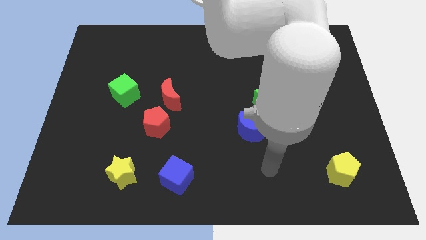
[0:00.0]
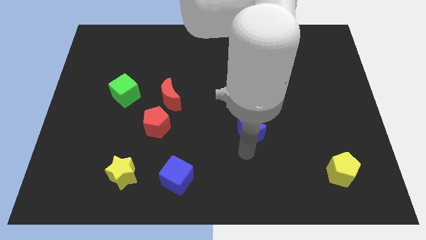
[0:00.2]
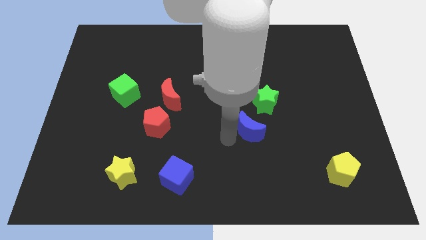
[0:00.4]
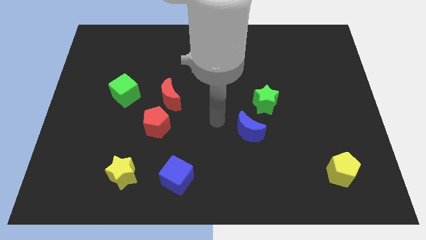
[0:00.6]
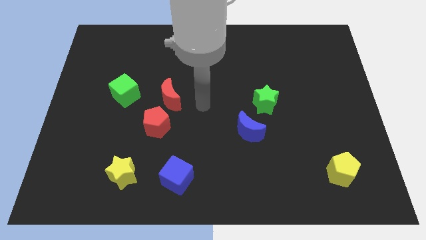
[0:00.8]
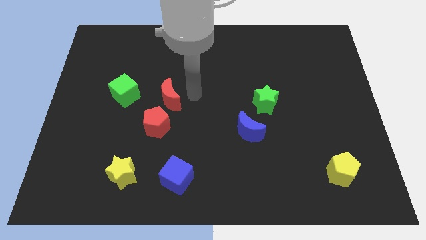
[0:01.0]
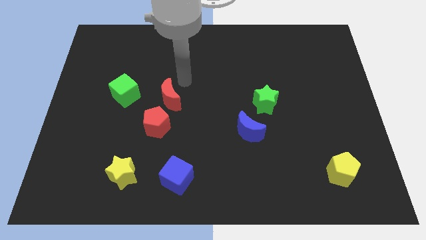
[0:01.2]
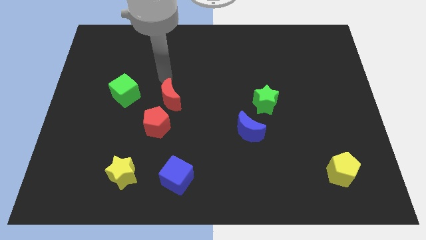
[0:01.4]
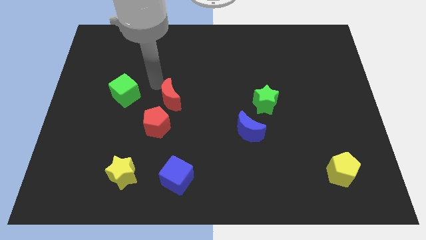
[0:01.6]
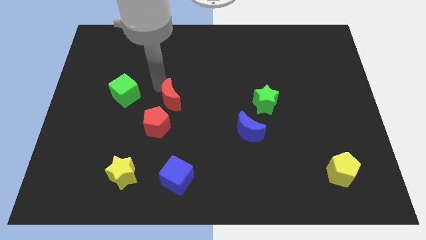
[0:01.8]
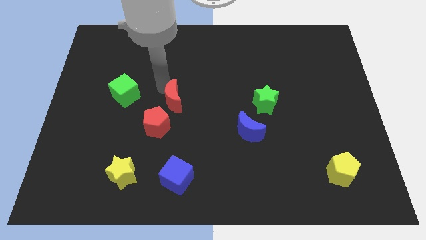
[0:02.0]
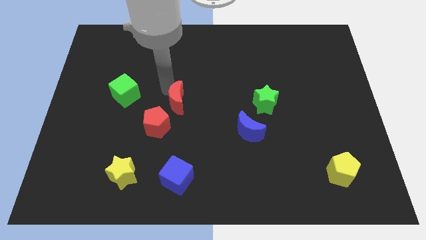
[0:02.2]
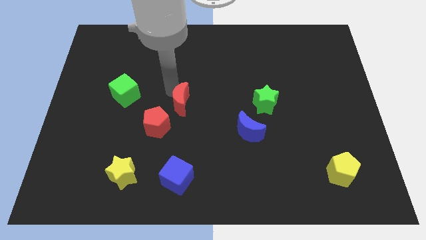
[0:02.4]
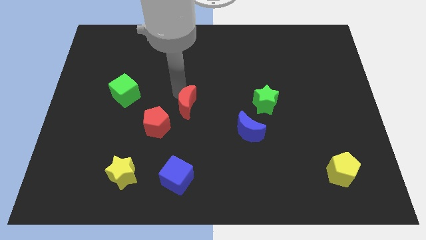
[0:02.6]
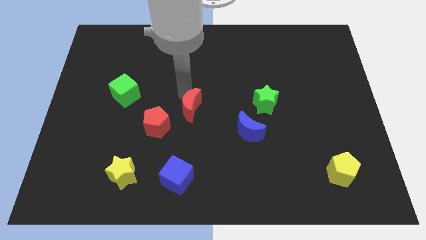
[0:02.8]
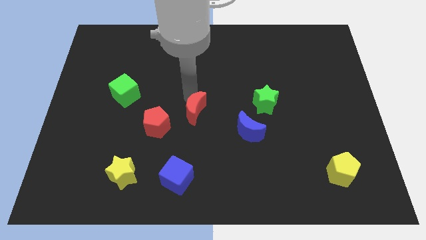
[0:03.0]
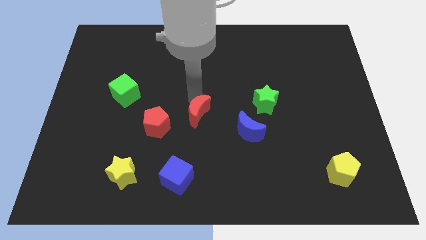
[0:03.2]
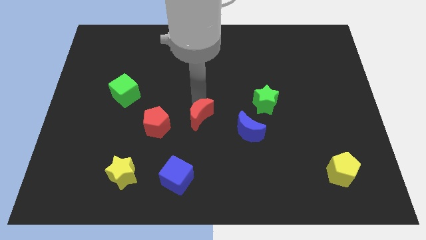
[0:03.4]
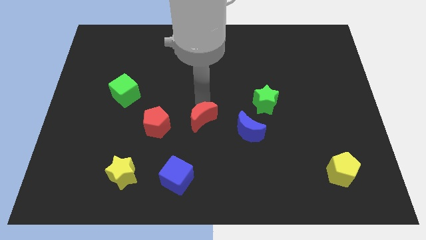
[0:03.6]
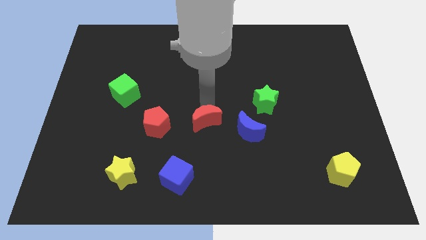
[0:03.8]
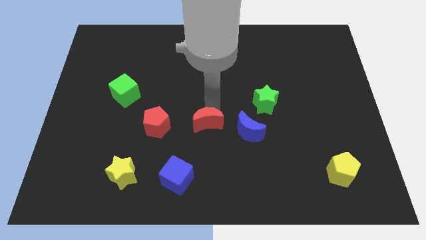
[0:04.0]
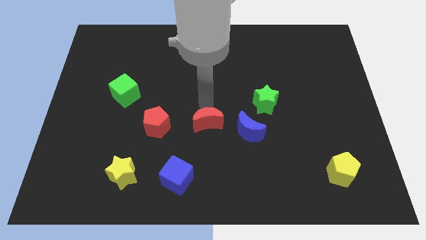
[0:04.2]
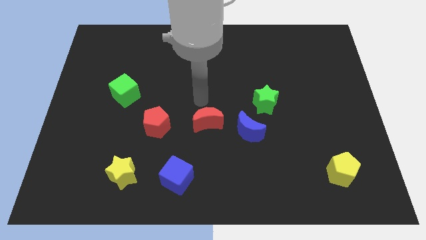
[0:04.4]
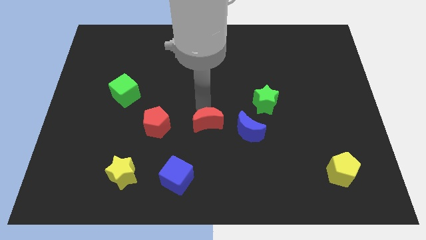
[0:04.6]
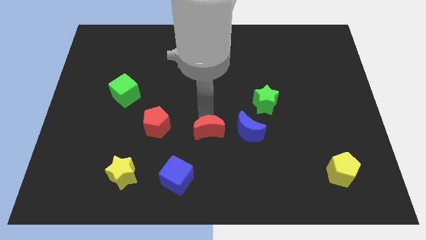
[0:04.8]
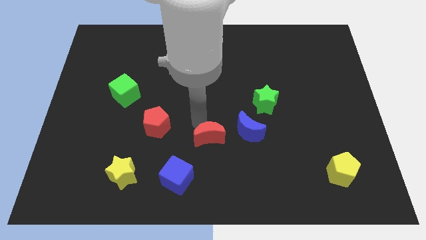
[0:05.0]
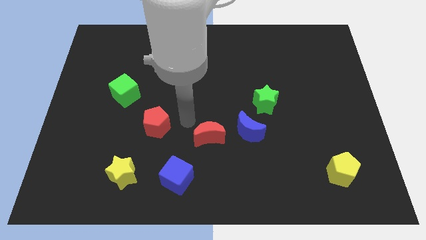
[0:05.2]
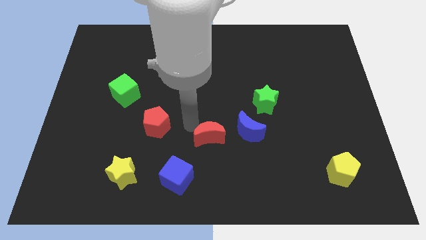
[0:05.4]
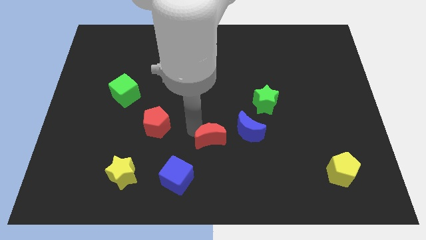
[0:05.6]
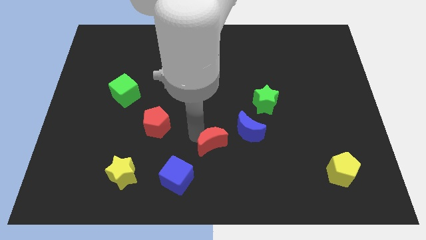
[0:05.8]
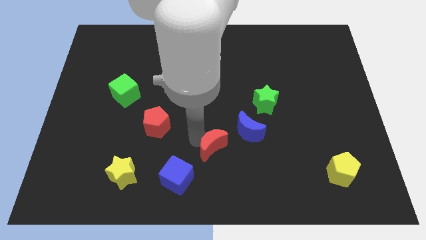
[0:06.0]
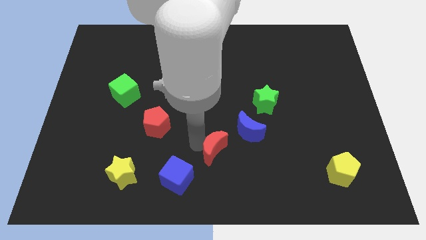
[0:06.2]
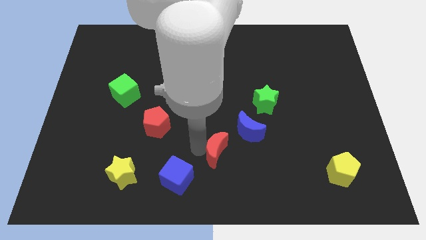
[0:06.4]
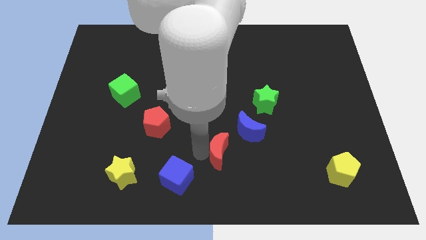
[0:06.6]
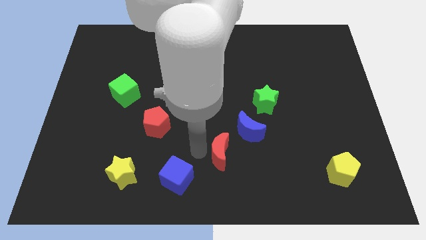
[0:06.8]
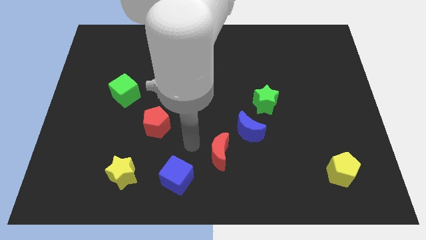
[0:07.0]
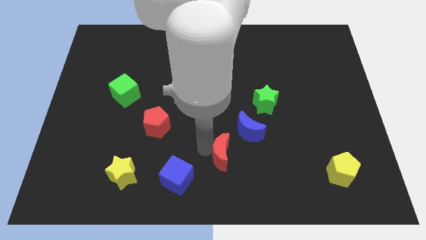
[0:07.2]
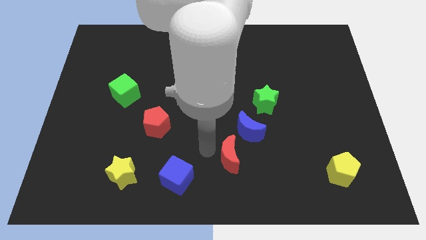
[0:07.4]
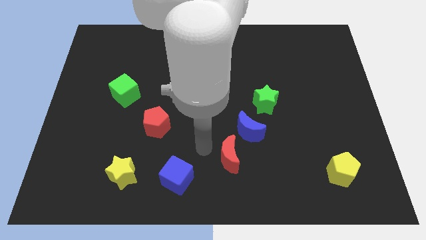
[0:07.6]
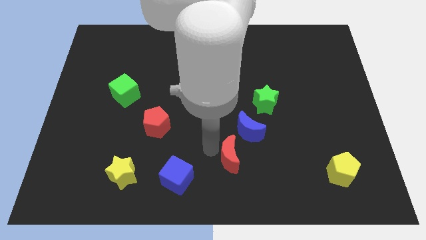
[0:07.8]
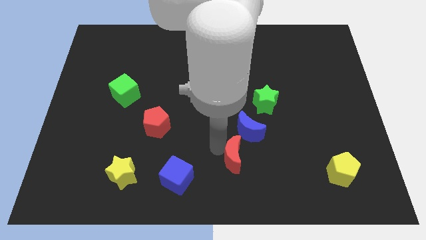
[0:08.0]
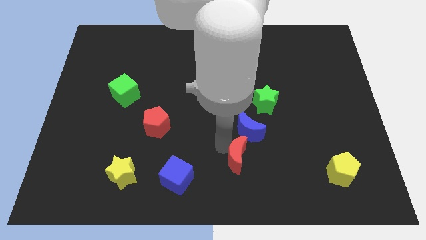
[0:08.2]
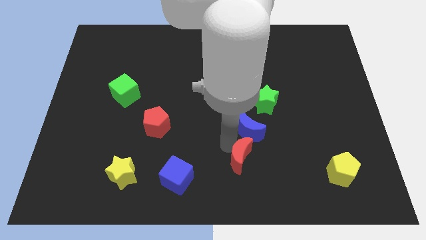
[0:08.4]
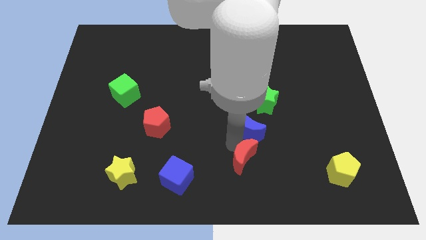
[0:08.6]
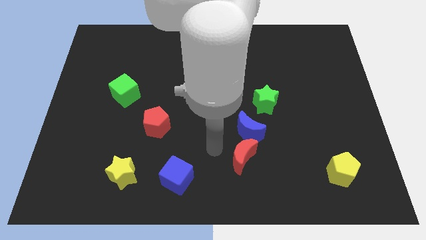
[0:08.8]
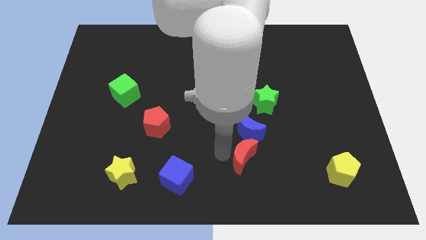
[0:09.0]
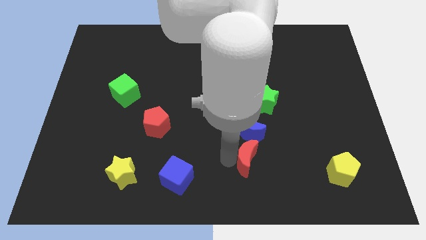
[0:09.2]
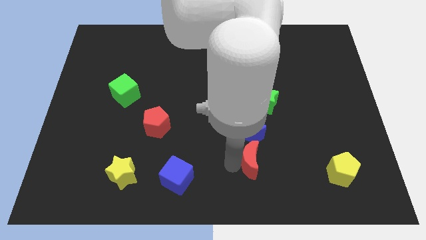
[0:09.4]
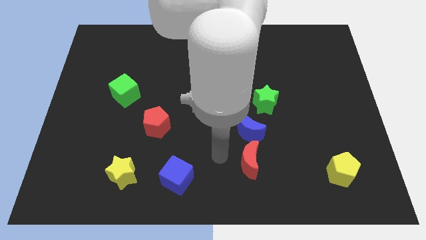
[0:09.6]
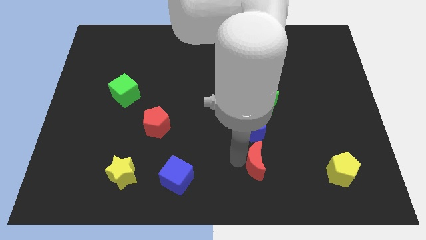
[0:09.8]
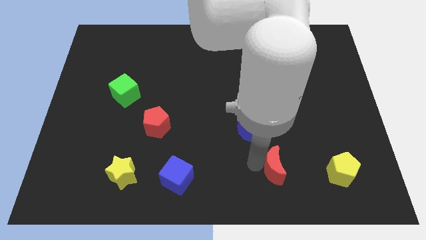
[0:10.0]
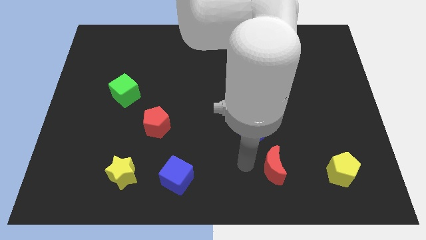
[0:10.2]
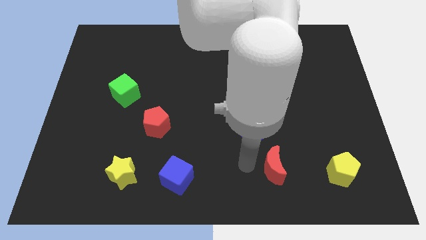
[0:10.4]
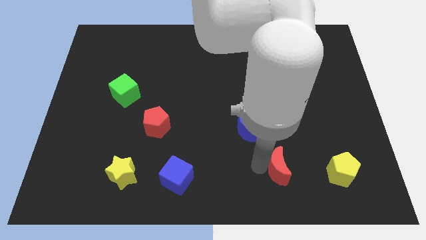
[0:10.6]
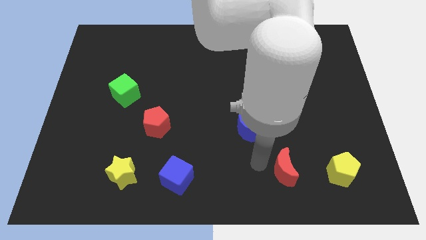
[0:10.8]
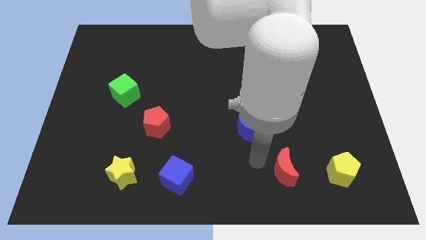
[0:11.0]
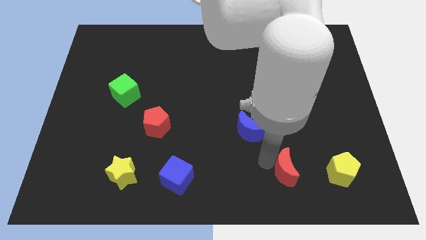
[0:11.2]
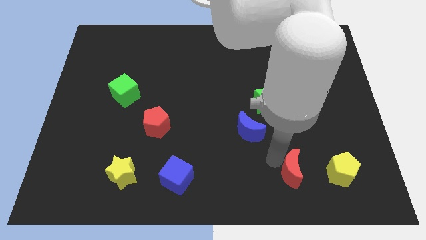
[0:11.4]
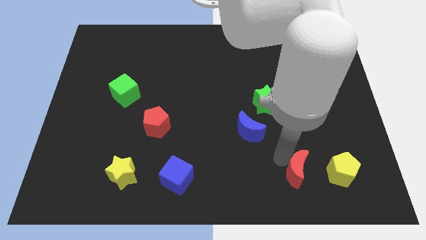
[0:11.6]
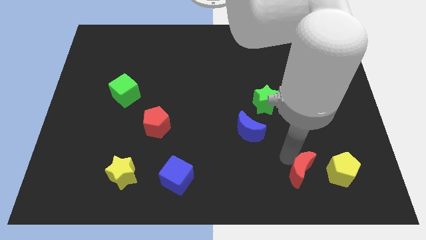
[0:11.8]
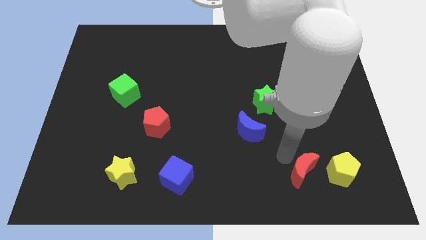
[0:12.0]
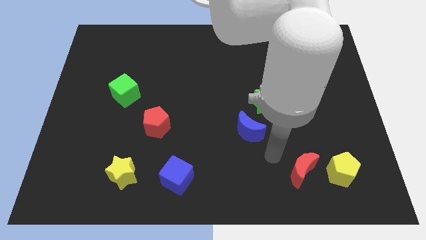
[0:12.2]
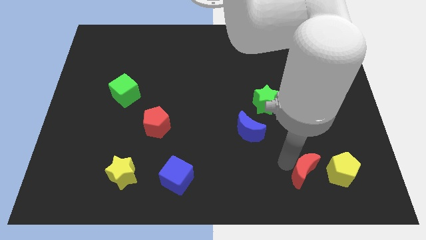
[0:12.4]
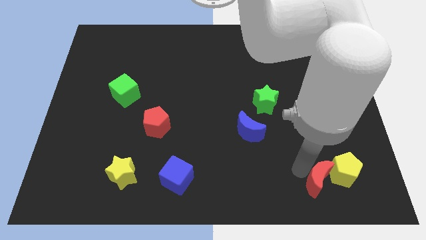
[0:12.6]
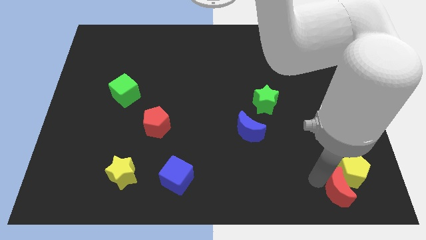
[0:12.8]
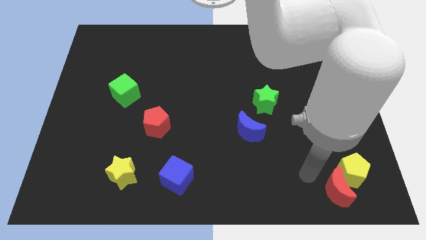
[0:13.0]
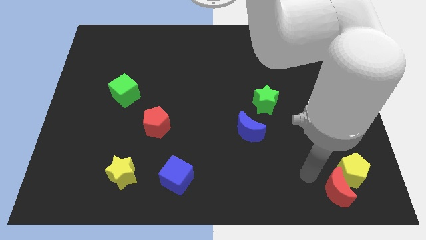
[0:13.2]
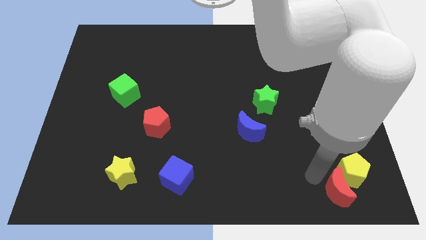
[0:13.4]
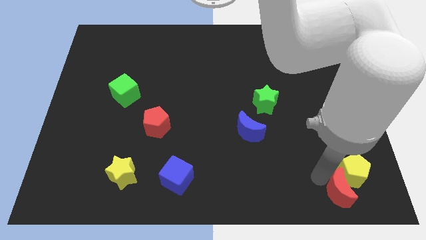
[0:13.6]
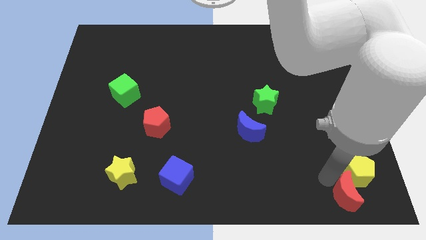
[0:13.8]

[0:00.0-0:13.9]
move the red moon to the bottom right corner

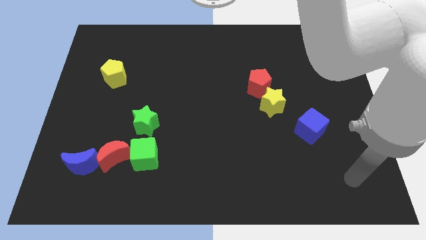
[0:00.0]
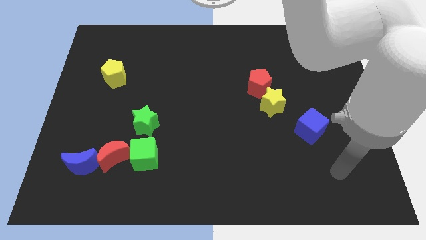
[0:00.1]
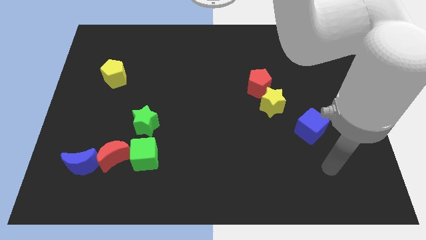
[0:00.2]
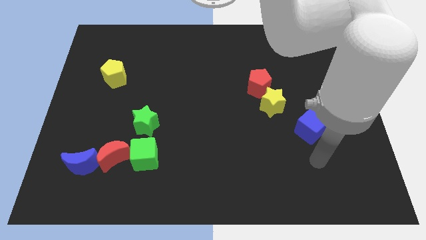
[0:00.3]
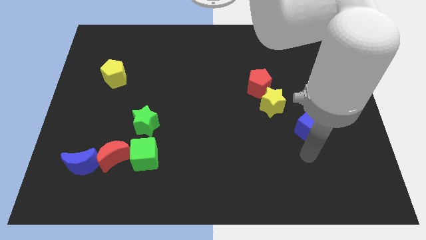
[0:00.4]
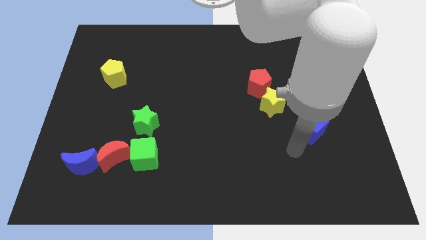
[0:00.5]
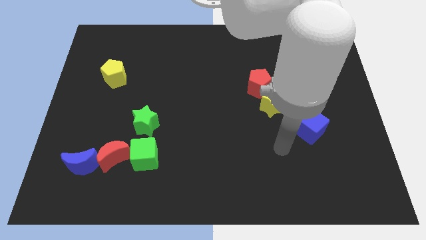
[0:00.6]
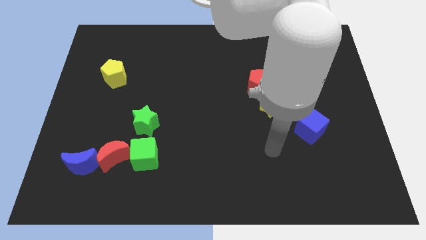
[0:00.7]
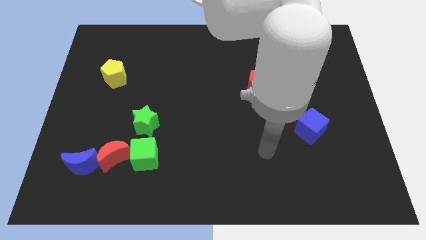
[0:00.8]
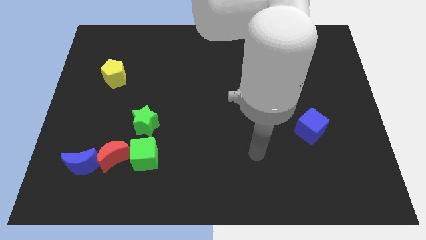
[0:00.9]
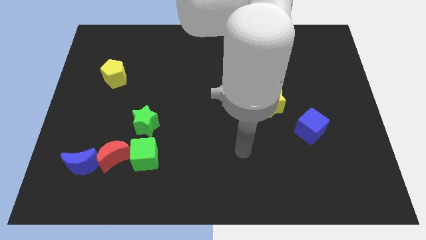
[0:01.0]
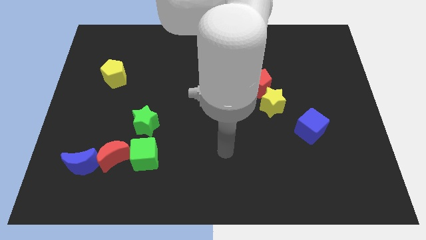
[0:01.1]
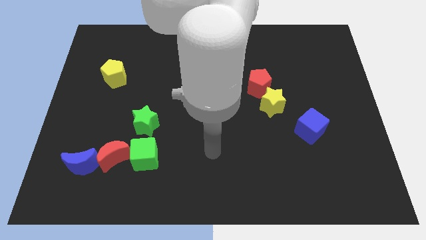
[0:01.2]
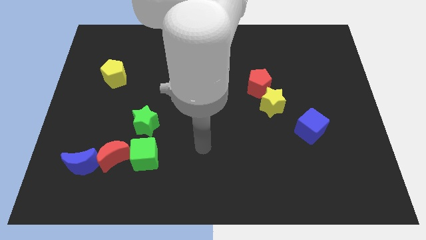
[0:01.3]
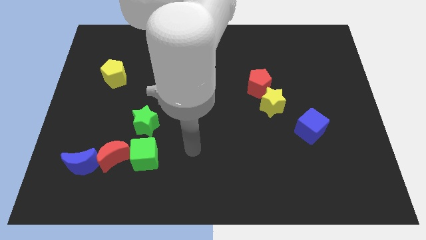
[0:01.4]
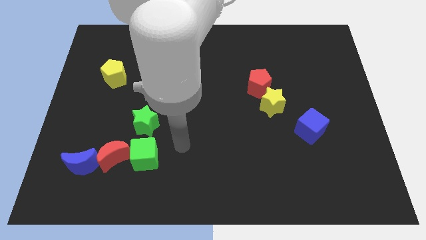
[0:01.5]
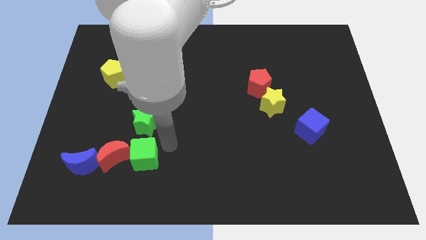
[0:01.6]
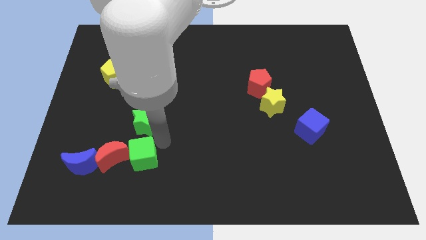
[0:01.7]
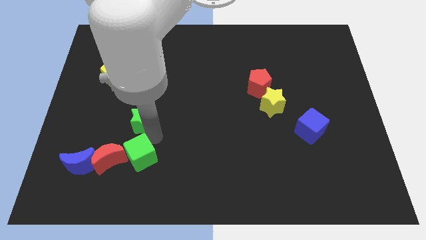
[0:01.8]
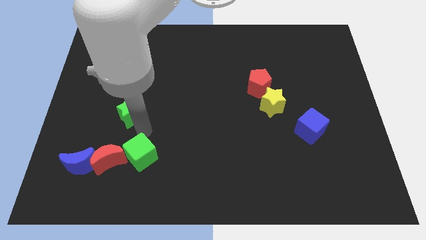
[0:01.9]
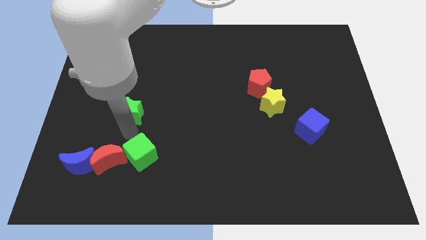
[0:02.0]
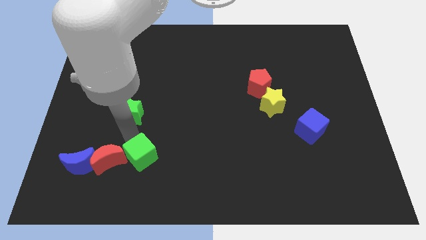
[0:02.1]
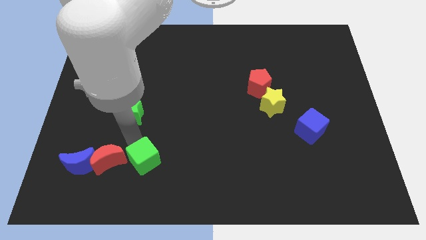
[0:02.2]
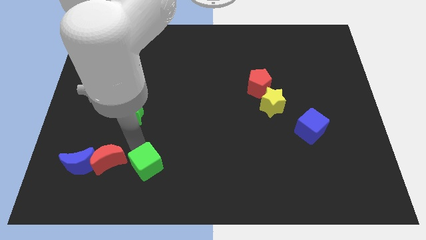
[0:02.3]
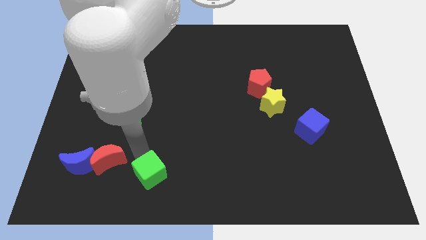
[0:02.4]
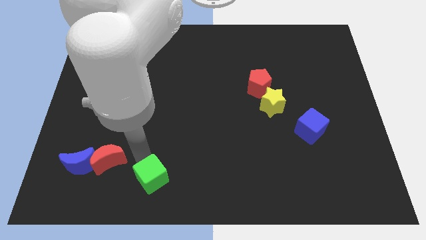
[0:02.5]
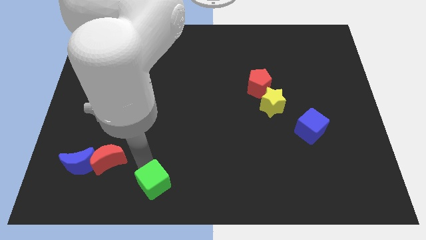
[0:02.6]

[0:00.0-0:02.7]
push the green cube to the bottom
